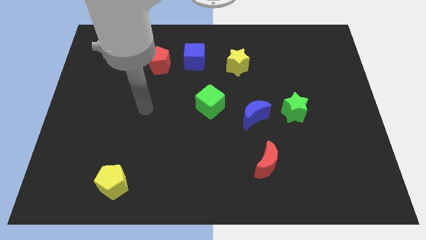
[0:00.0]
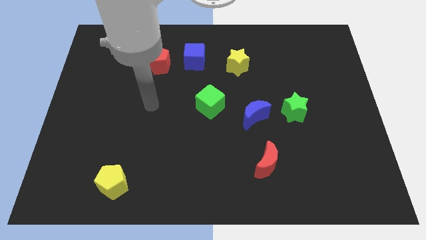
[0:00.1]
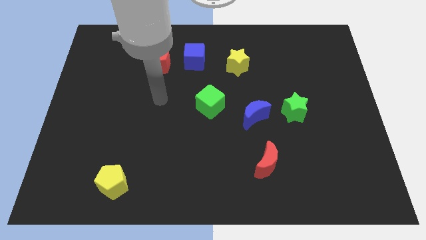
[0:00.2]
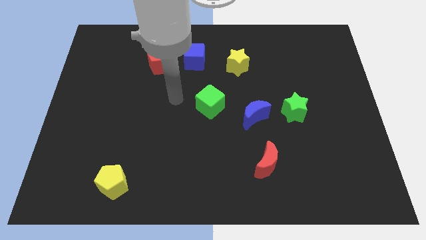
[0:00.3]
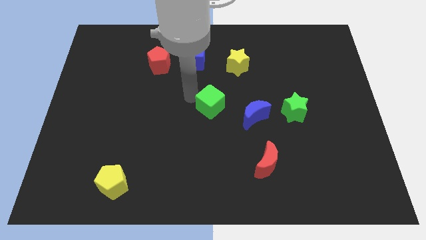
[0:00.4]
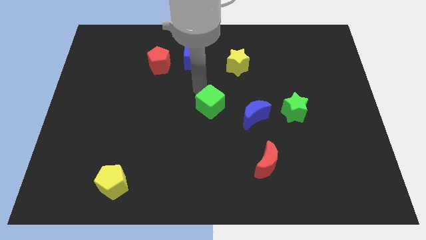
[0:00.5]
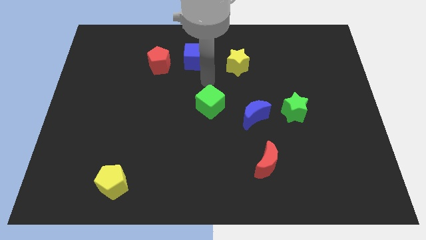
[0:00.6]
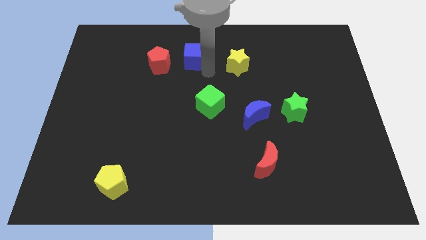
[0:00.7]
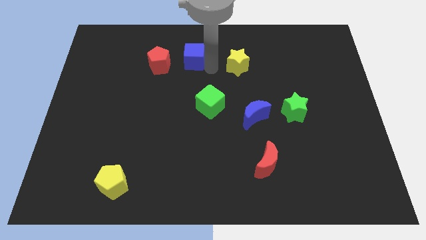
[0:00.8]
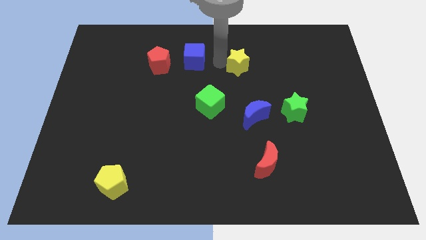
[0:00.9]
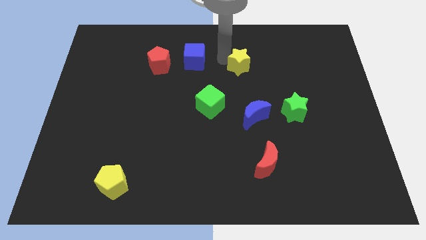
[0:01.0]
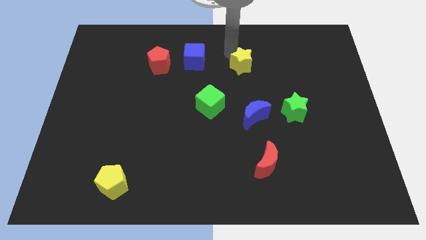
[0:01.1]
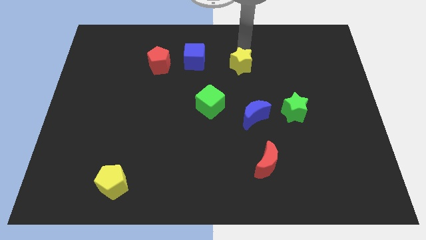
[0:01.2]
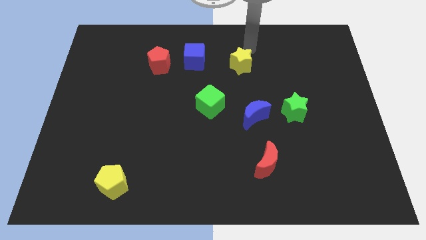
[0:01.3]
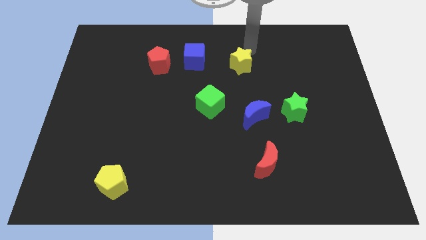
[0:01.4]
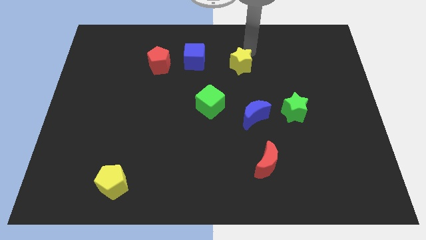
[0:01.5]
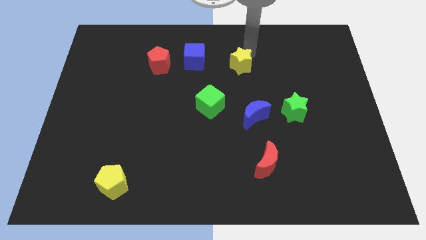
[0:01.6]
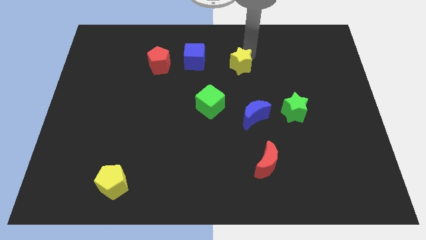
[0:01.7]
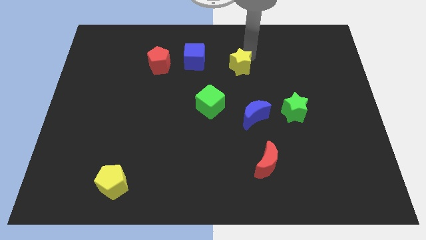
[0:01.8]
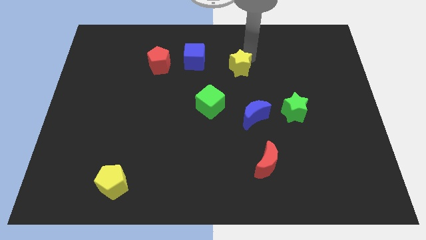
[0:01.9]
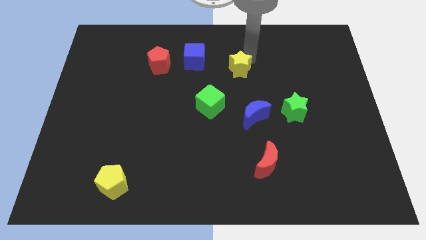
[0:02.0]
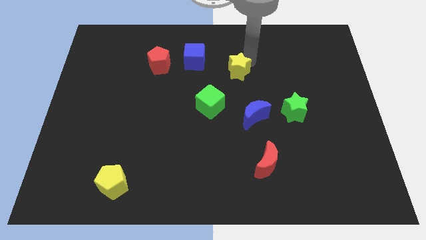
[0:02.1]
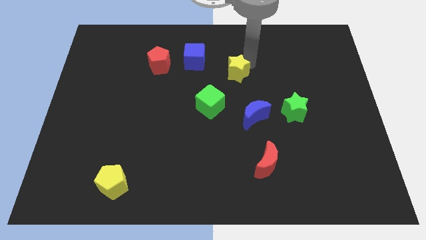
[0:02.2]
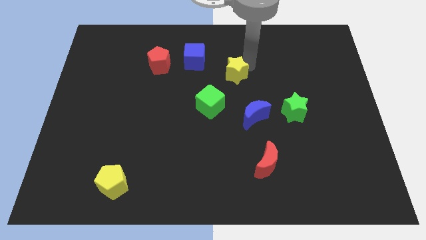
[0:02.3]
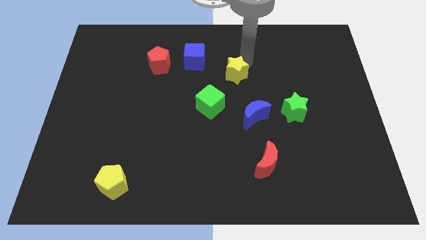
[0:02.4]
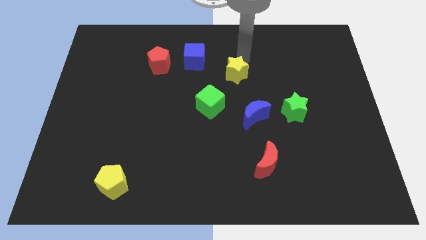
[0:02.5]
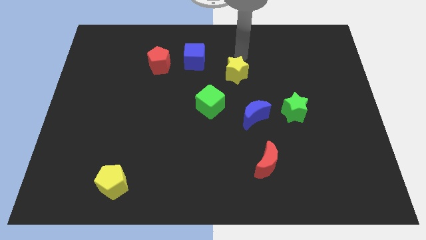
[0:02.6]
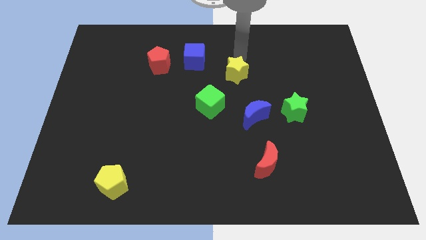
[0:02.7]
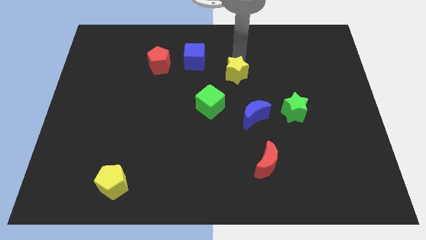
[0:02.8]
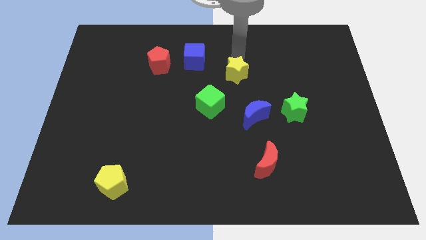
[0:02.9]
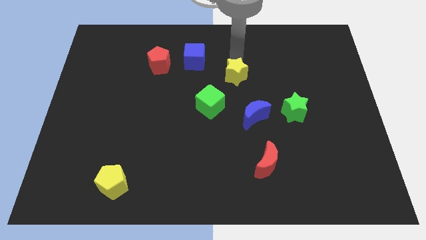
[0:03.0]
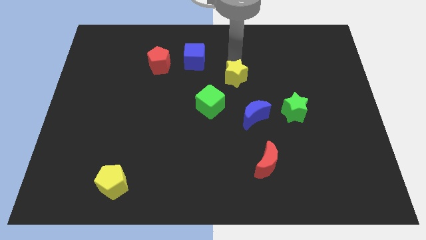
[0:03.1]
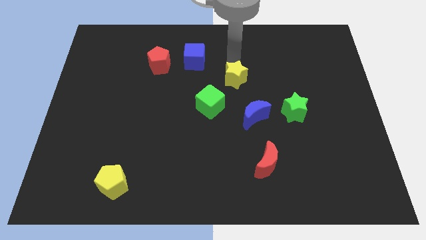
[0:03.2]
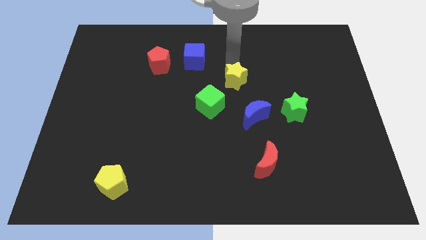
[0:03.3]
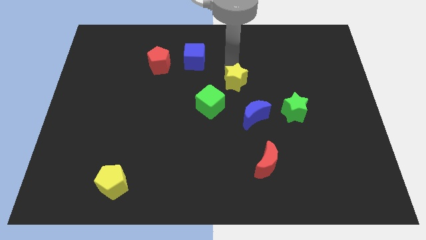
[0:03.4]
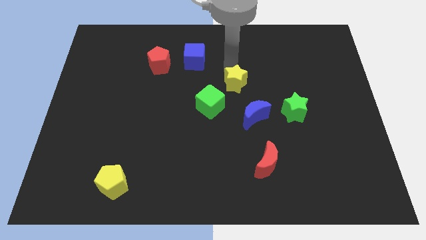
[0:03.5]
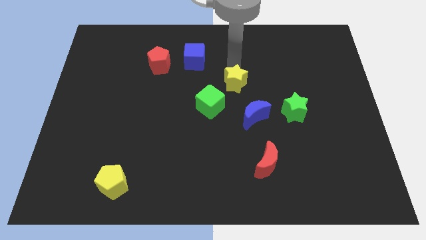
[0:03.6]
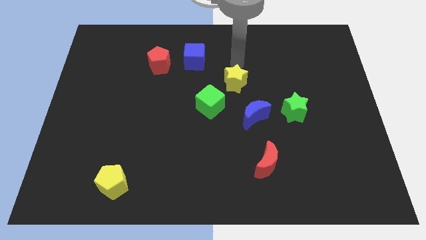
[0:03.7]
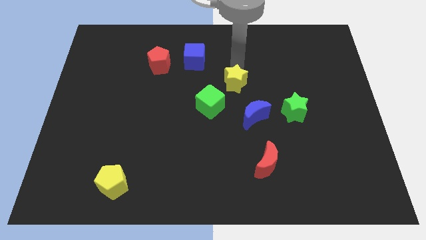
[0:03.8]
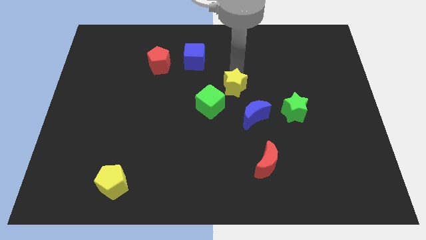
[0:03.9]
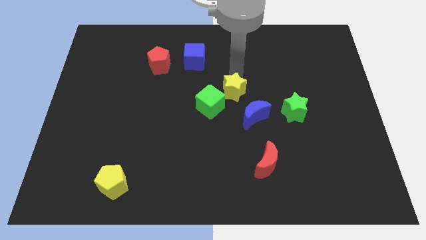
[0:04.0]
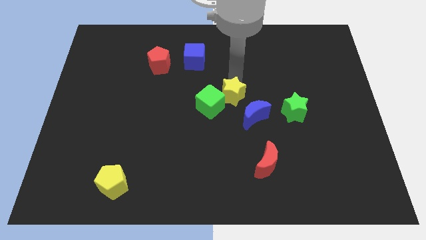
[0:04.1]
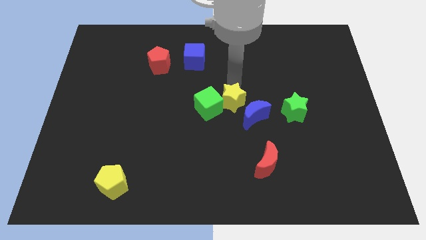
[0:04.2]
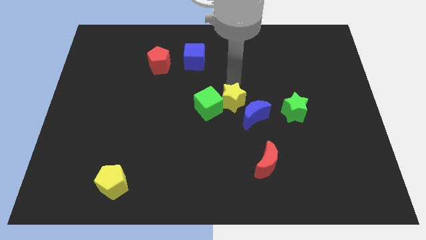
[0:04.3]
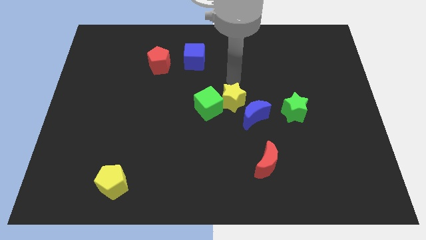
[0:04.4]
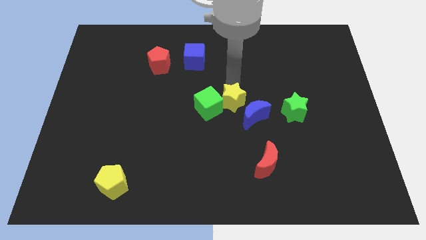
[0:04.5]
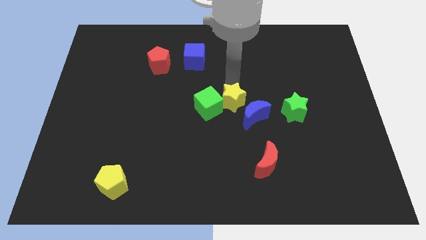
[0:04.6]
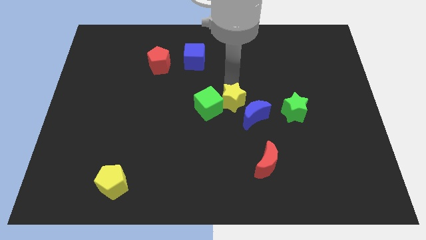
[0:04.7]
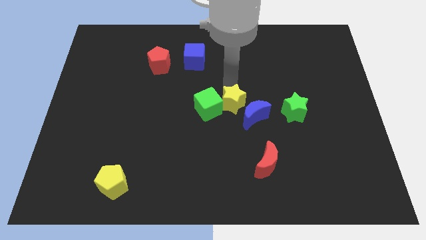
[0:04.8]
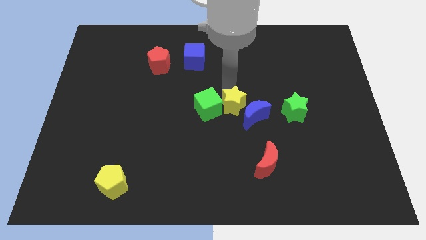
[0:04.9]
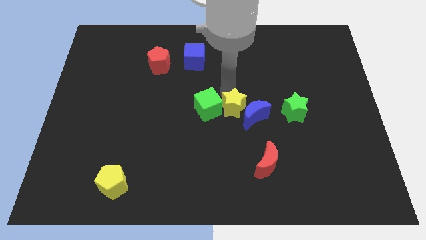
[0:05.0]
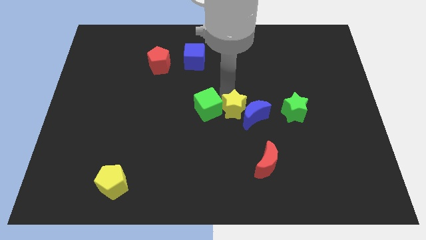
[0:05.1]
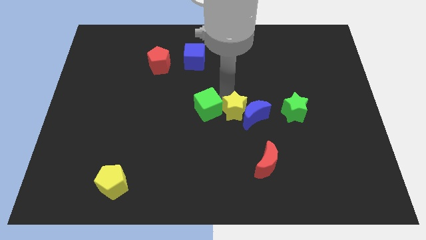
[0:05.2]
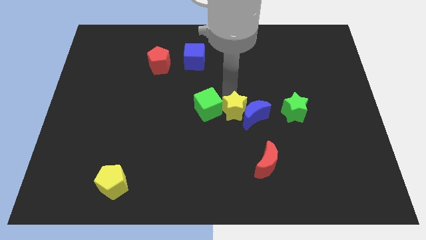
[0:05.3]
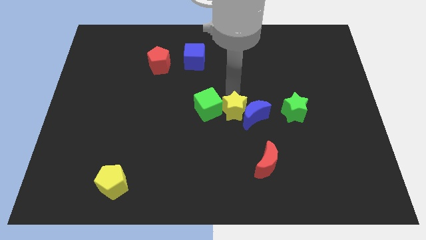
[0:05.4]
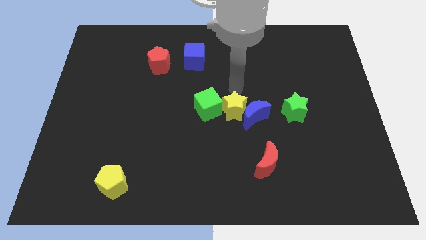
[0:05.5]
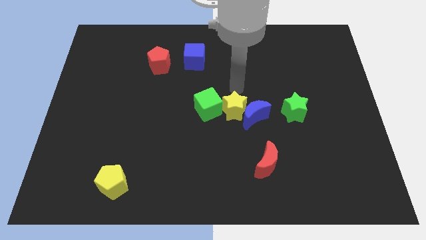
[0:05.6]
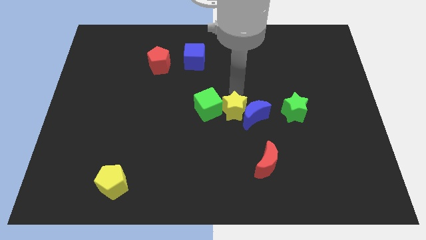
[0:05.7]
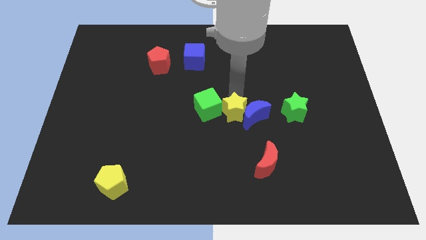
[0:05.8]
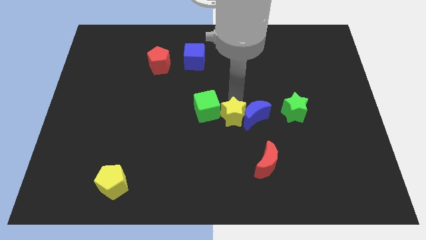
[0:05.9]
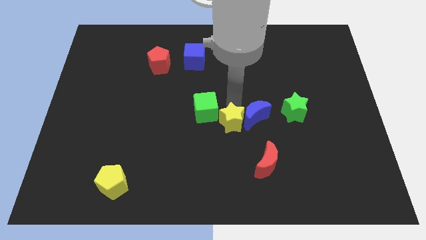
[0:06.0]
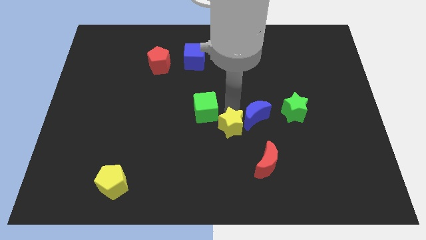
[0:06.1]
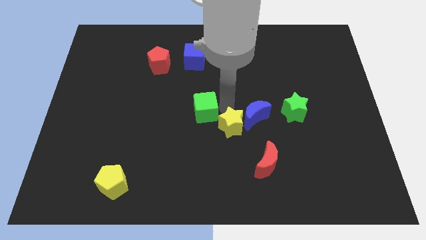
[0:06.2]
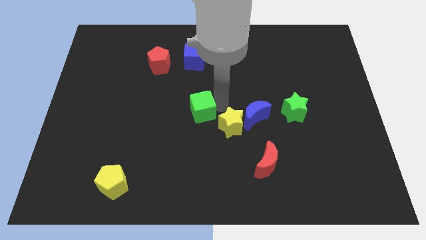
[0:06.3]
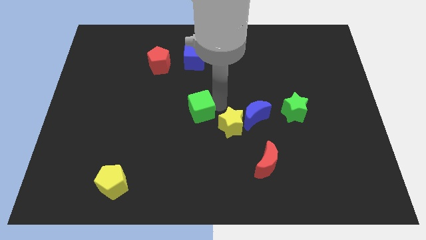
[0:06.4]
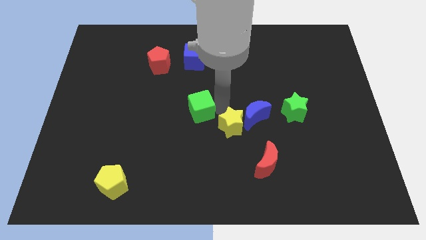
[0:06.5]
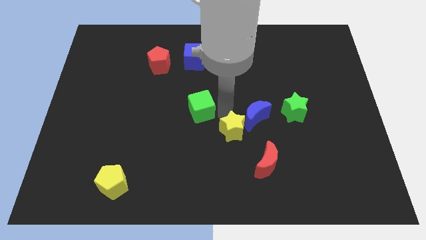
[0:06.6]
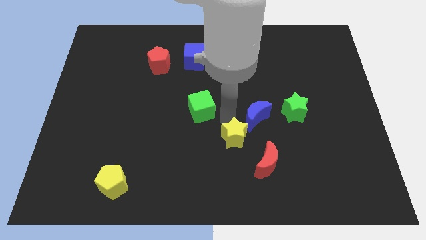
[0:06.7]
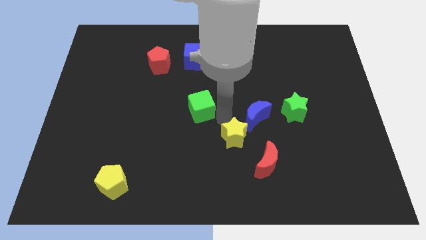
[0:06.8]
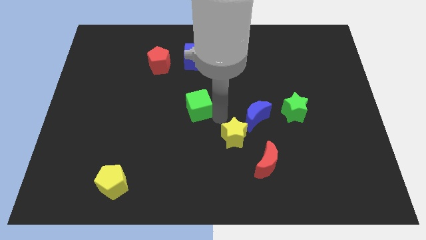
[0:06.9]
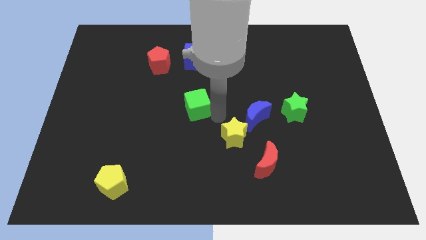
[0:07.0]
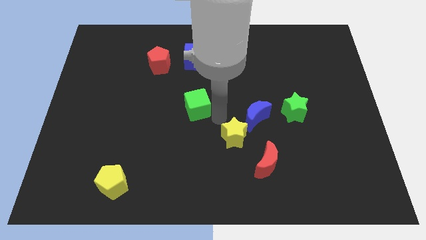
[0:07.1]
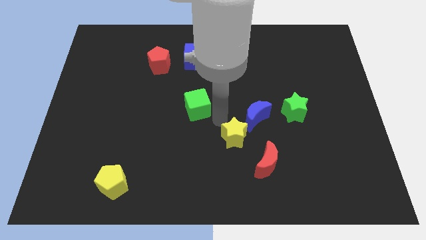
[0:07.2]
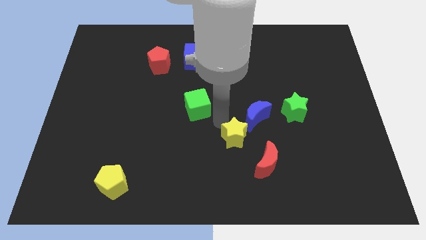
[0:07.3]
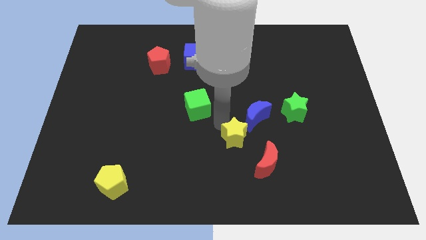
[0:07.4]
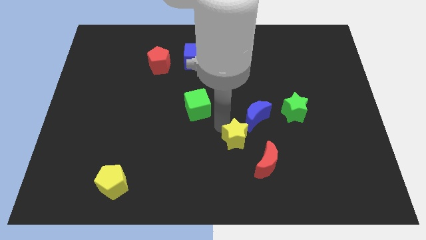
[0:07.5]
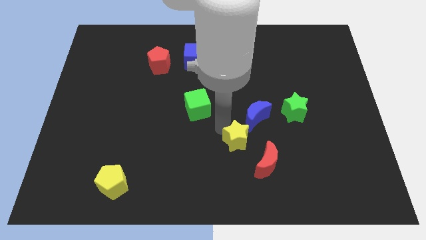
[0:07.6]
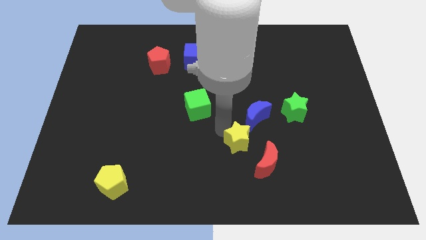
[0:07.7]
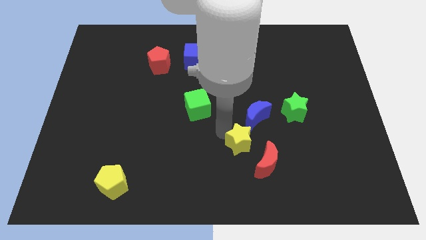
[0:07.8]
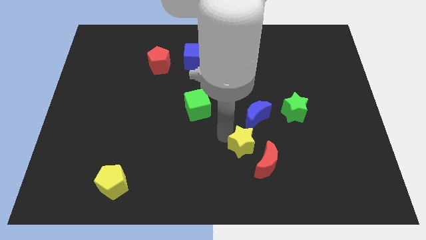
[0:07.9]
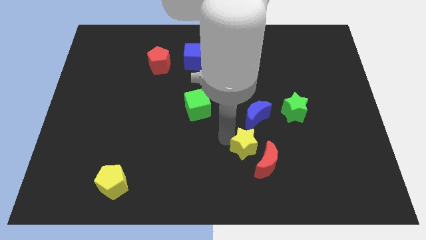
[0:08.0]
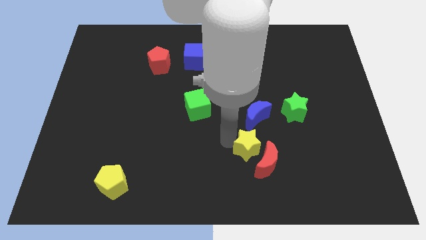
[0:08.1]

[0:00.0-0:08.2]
move the yellow star next to the red moon
